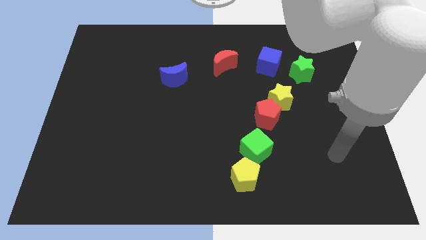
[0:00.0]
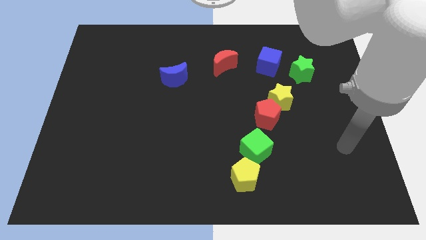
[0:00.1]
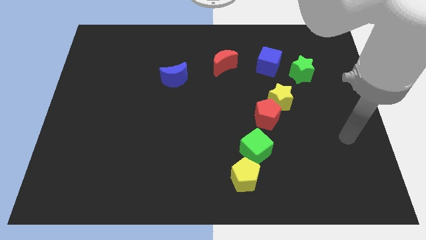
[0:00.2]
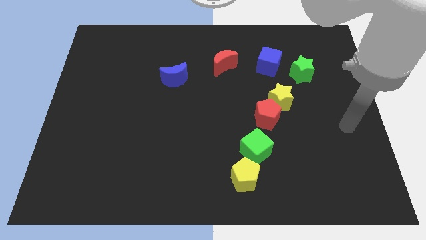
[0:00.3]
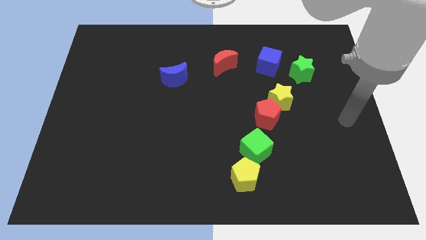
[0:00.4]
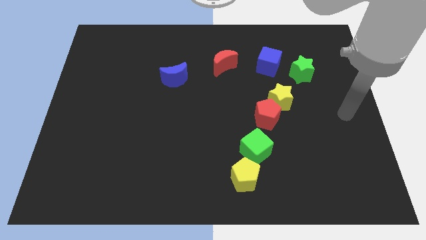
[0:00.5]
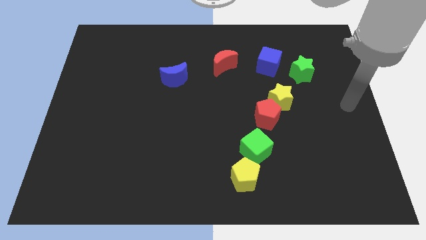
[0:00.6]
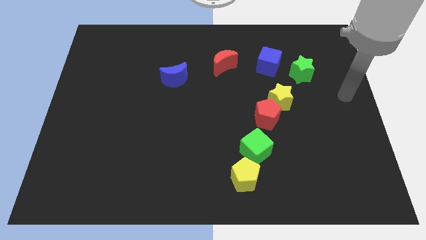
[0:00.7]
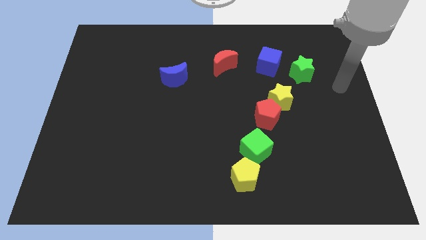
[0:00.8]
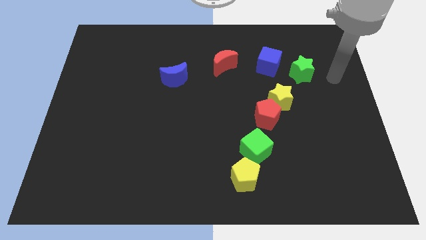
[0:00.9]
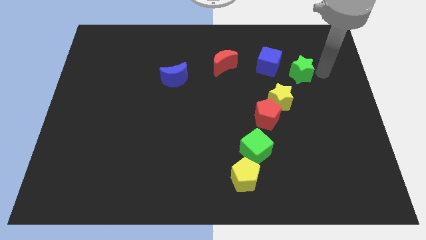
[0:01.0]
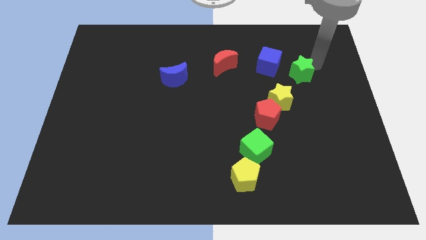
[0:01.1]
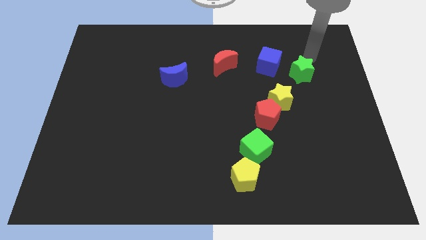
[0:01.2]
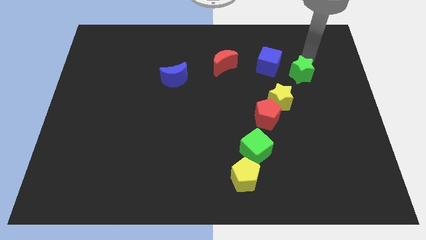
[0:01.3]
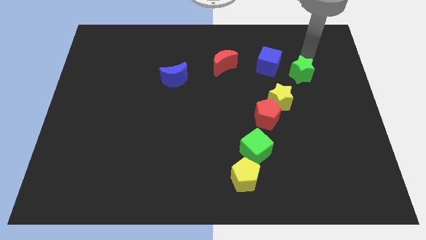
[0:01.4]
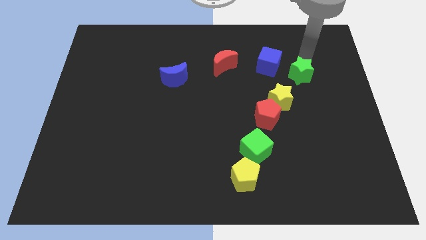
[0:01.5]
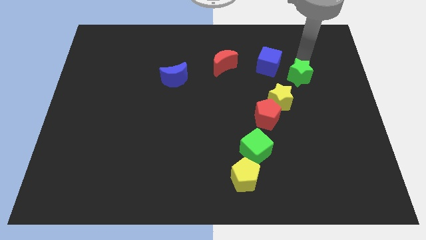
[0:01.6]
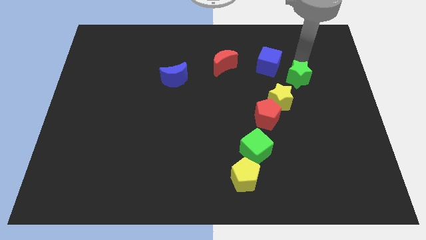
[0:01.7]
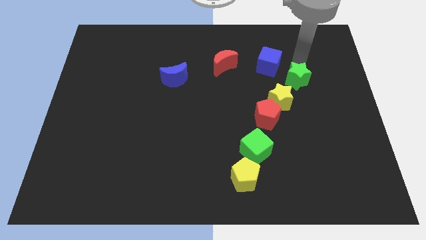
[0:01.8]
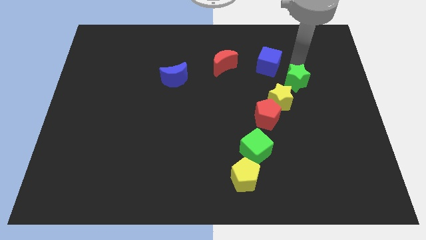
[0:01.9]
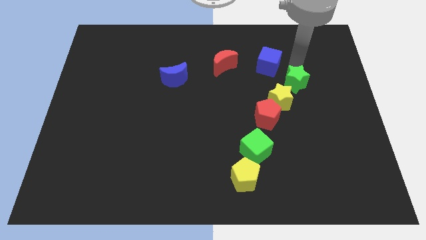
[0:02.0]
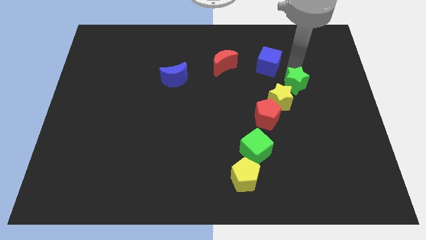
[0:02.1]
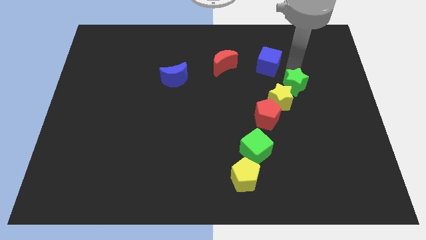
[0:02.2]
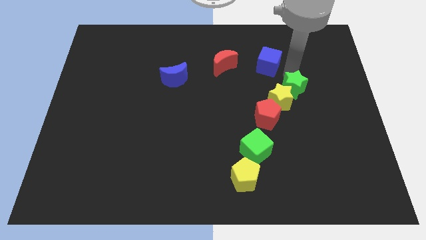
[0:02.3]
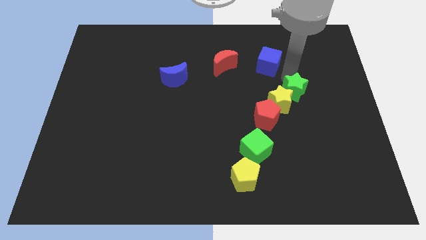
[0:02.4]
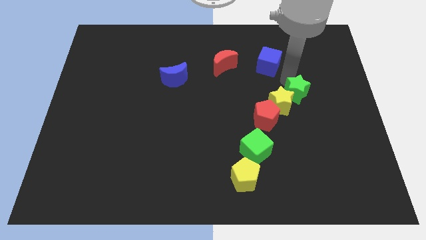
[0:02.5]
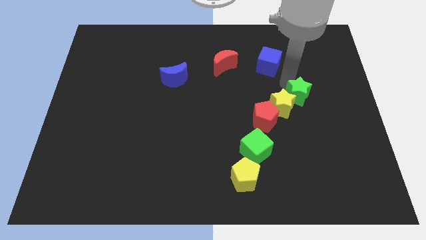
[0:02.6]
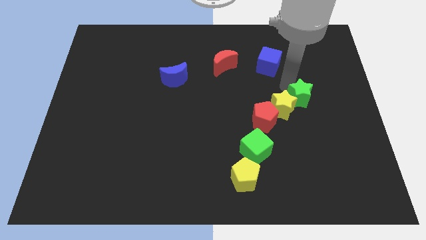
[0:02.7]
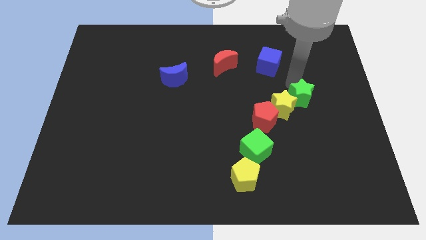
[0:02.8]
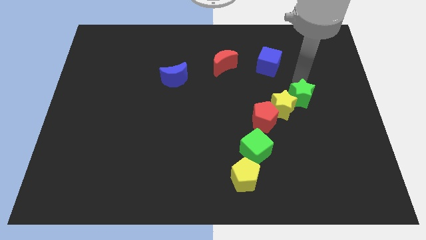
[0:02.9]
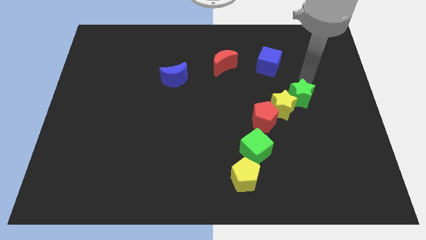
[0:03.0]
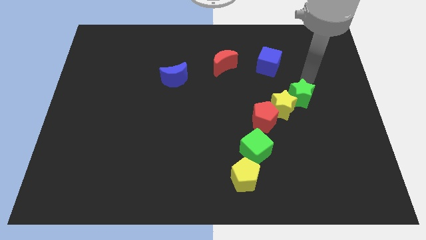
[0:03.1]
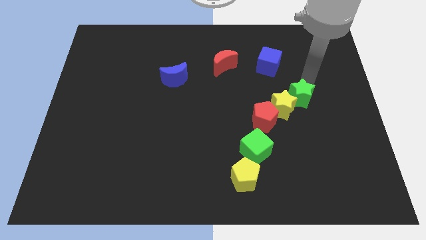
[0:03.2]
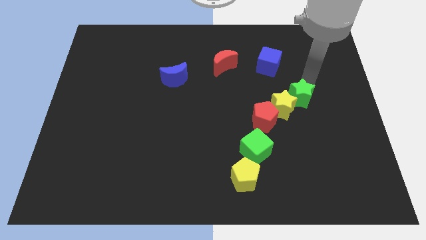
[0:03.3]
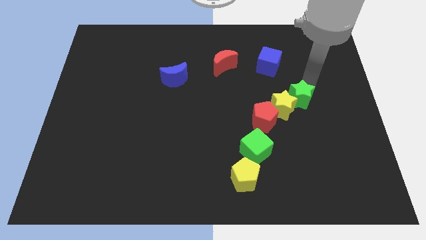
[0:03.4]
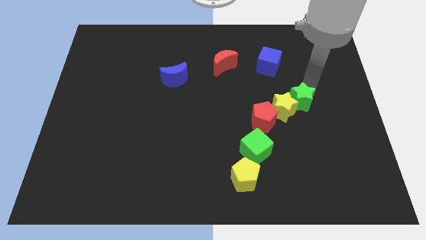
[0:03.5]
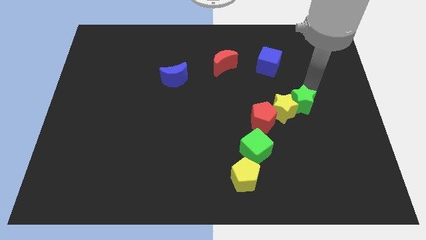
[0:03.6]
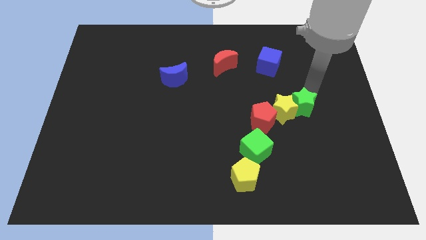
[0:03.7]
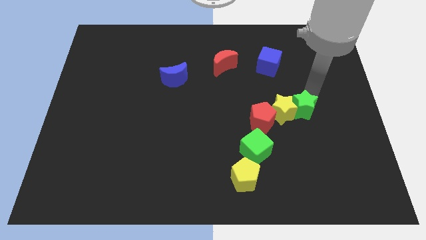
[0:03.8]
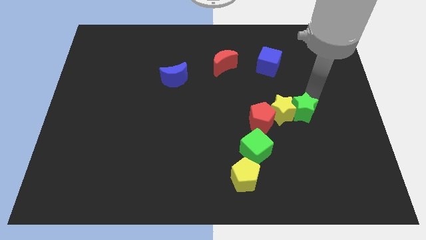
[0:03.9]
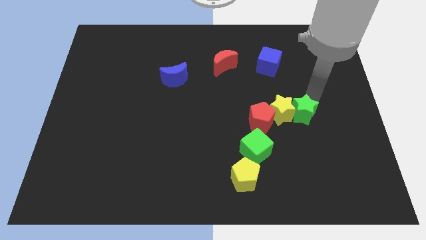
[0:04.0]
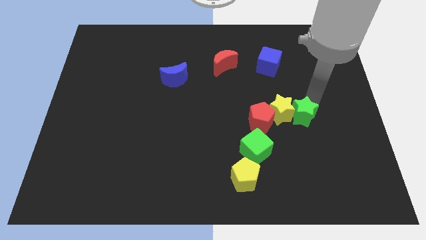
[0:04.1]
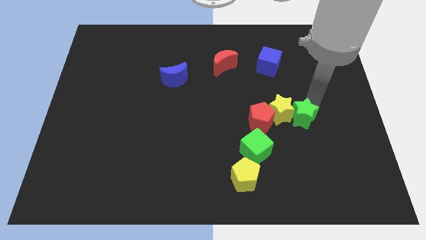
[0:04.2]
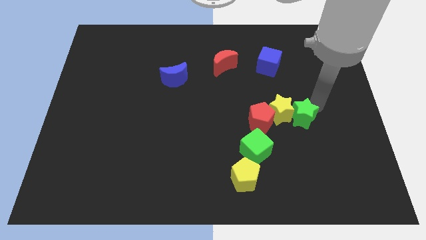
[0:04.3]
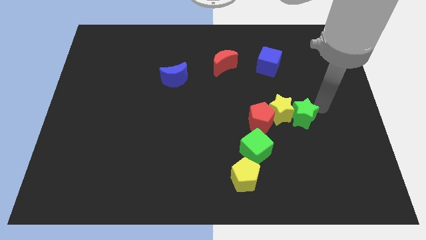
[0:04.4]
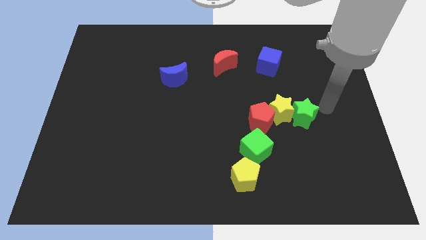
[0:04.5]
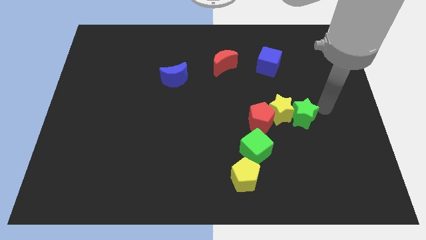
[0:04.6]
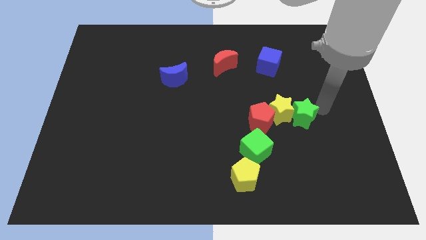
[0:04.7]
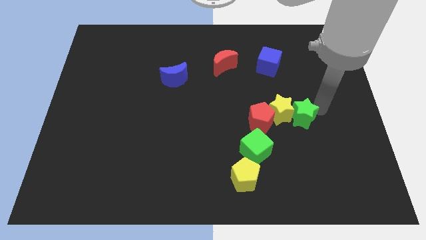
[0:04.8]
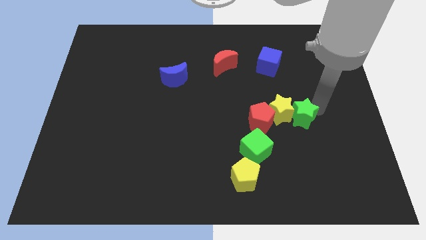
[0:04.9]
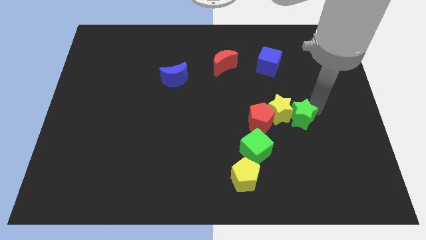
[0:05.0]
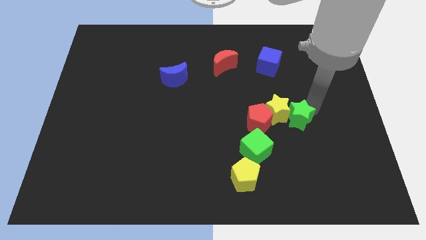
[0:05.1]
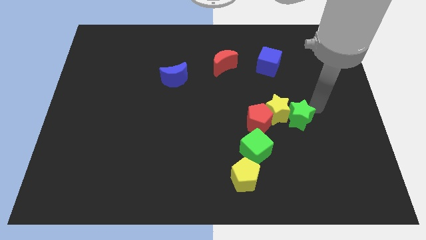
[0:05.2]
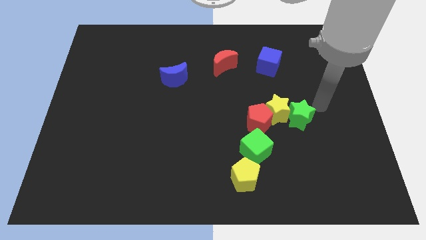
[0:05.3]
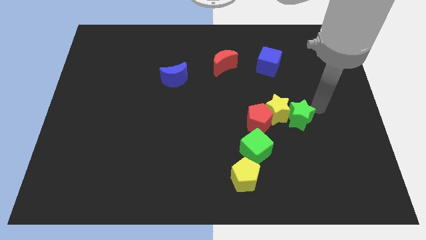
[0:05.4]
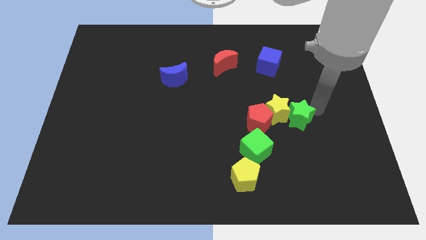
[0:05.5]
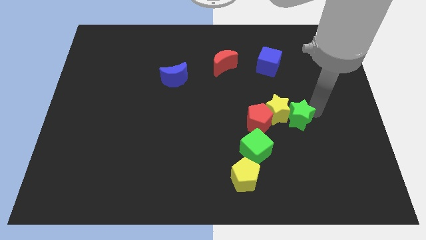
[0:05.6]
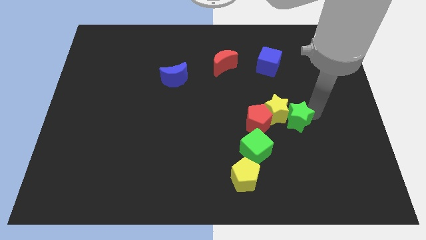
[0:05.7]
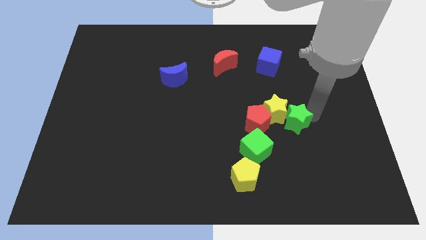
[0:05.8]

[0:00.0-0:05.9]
slide the green star to the top right side of the green cube

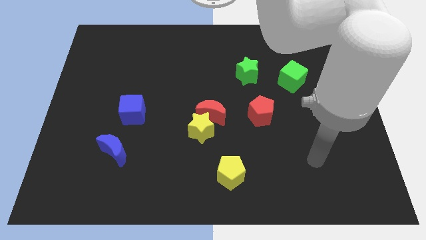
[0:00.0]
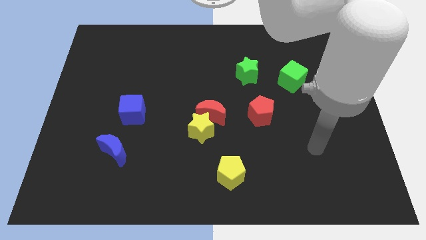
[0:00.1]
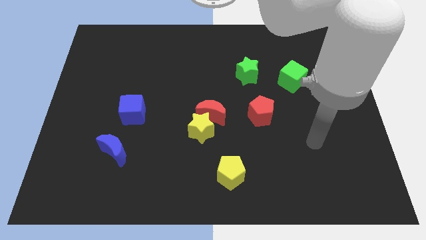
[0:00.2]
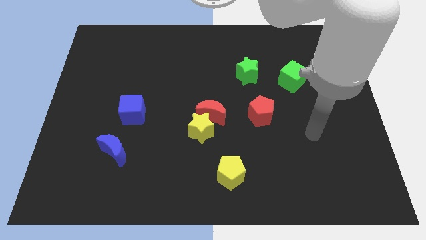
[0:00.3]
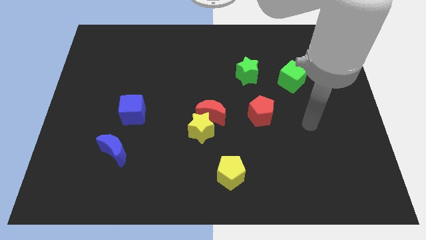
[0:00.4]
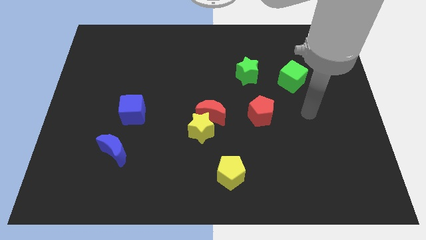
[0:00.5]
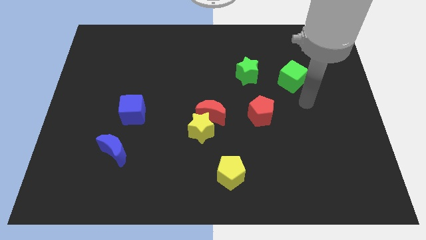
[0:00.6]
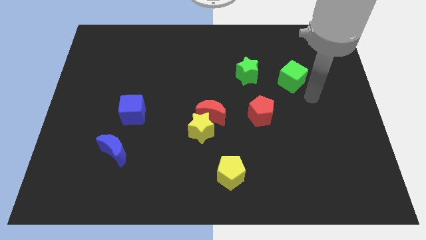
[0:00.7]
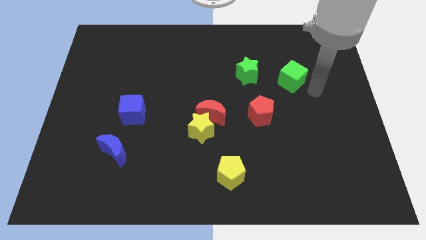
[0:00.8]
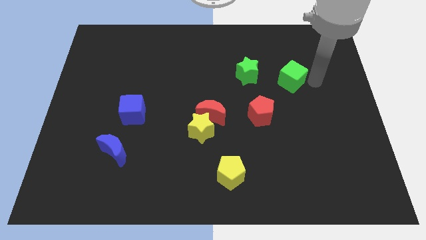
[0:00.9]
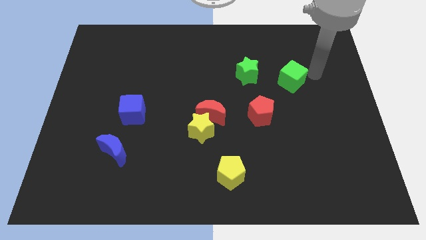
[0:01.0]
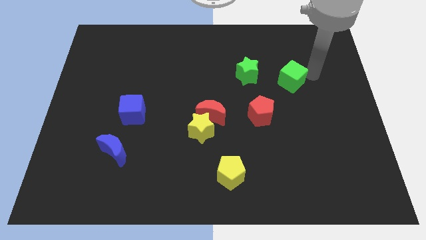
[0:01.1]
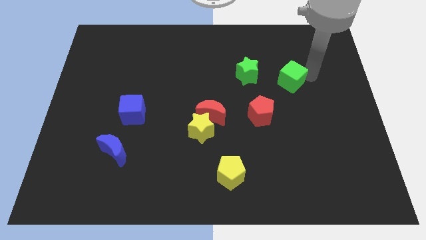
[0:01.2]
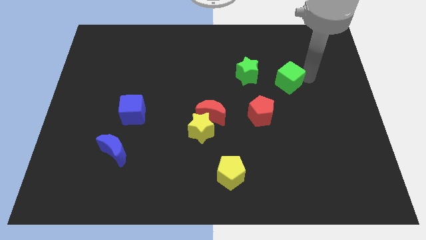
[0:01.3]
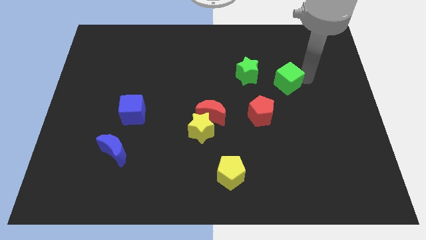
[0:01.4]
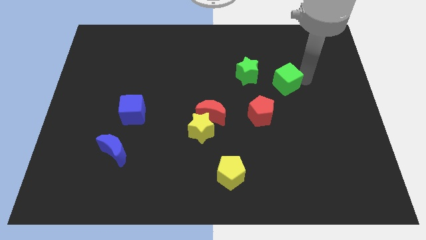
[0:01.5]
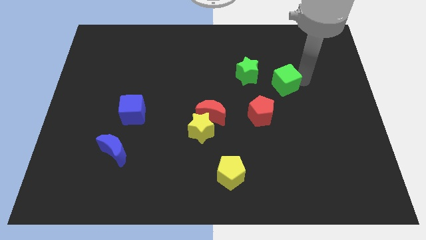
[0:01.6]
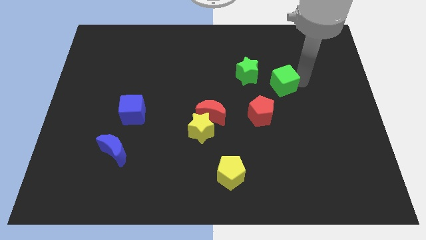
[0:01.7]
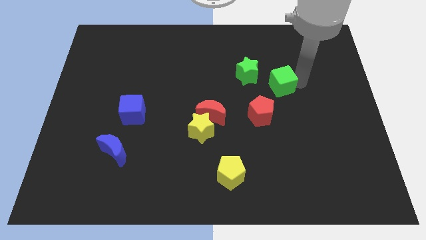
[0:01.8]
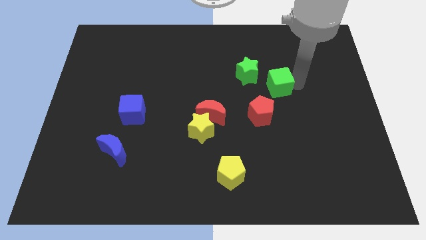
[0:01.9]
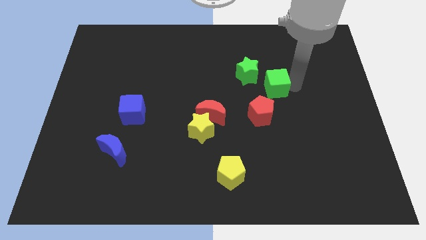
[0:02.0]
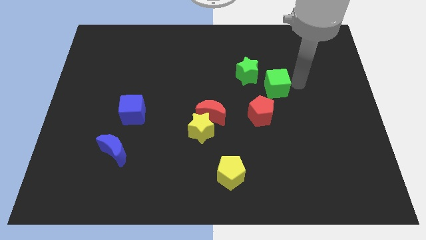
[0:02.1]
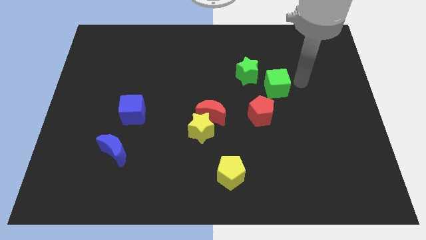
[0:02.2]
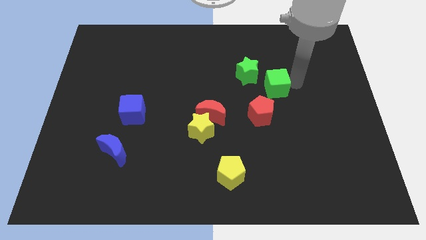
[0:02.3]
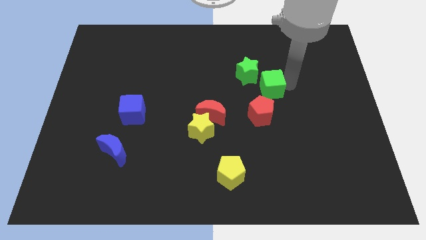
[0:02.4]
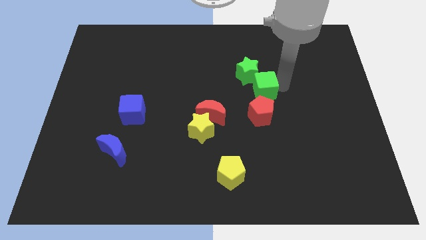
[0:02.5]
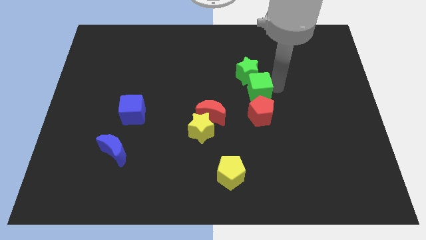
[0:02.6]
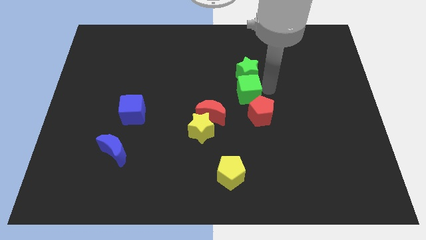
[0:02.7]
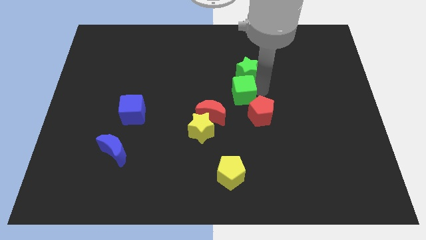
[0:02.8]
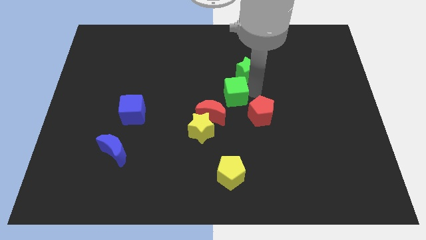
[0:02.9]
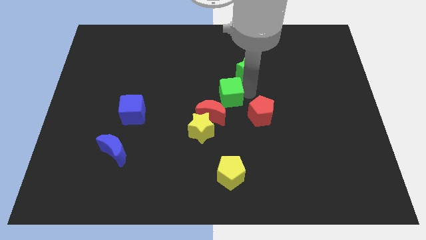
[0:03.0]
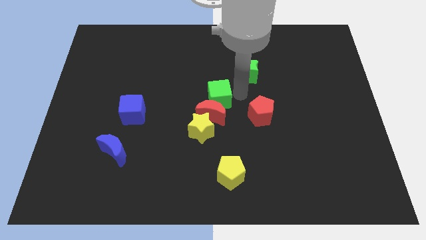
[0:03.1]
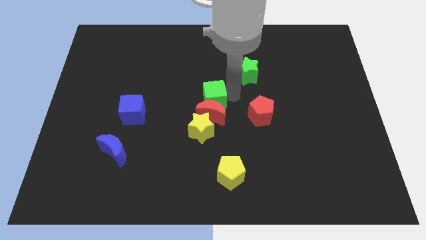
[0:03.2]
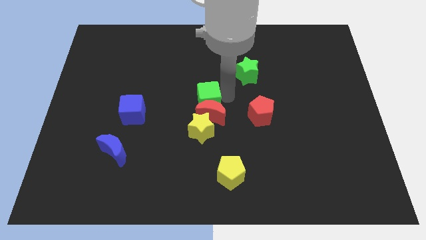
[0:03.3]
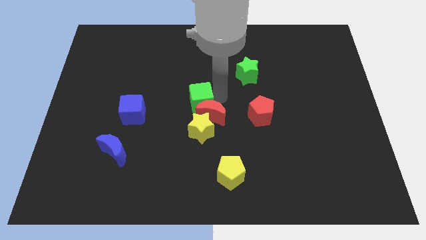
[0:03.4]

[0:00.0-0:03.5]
slide the green cube to the left side of the red moon
